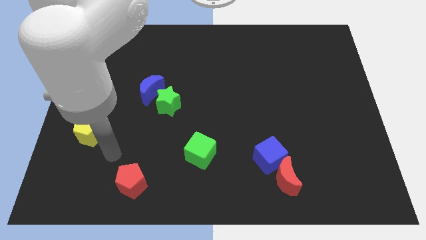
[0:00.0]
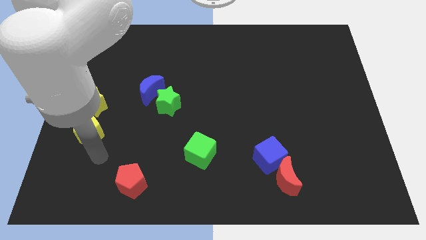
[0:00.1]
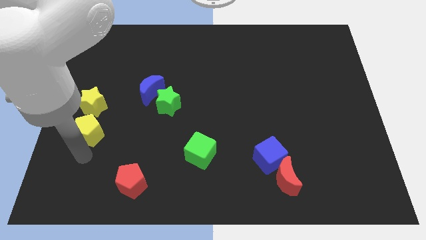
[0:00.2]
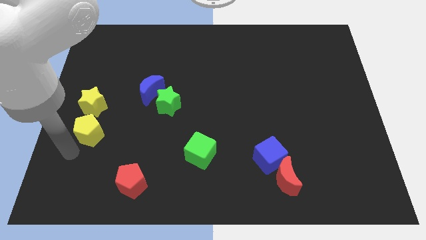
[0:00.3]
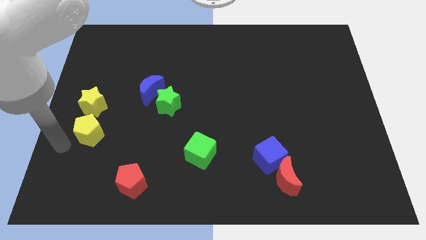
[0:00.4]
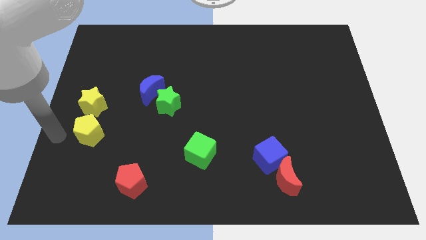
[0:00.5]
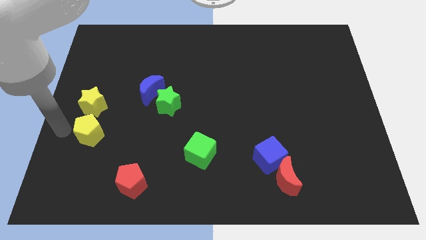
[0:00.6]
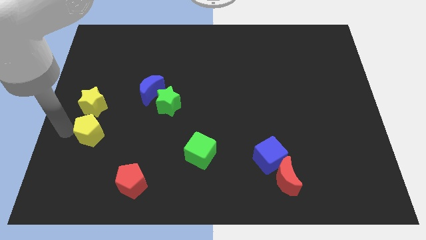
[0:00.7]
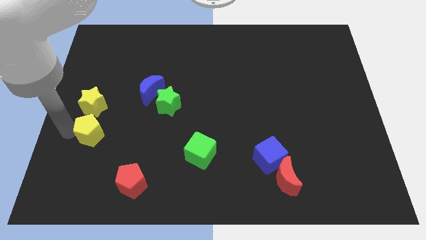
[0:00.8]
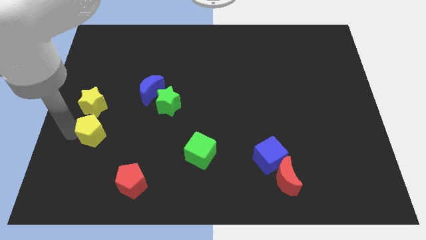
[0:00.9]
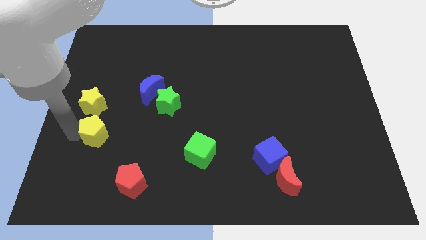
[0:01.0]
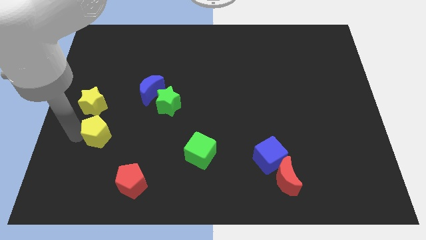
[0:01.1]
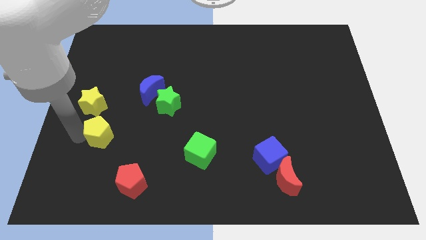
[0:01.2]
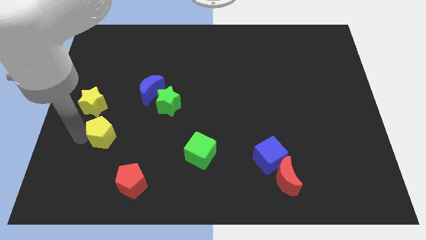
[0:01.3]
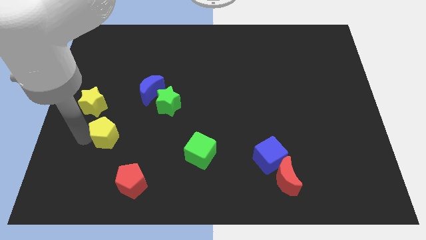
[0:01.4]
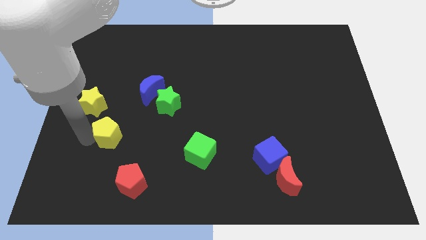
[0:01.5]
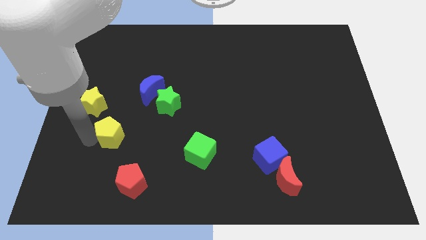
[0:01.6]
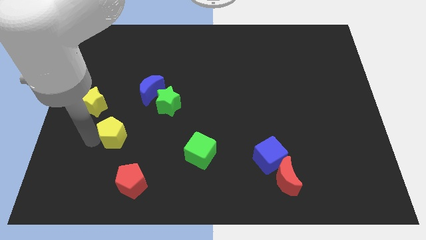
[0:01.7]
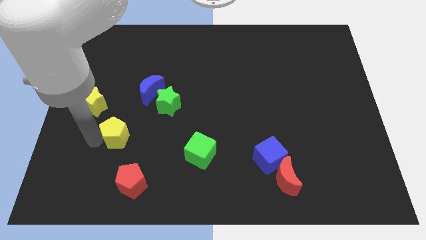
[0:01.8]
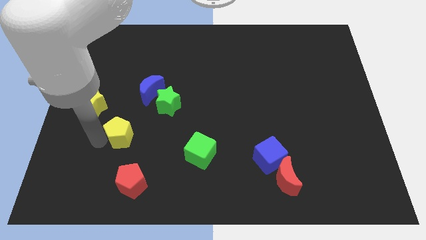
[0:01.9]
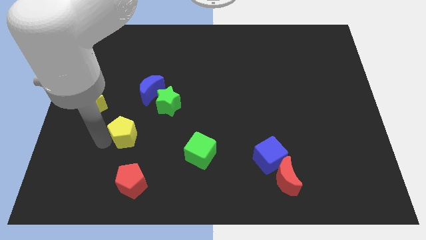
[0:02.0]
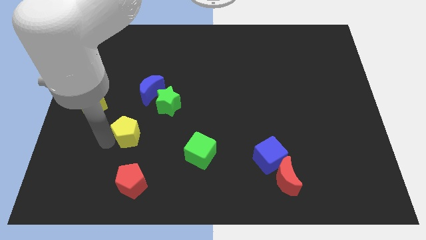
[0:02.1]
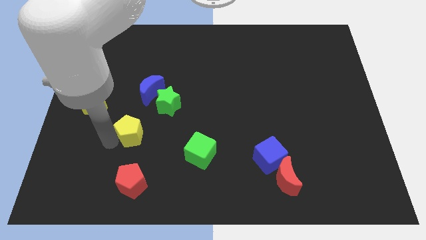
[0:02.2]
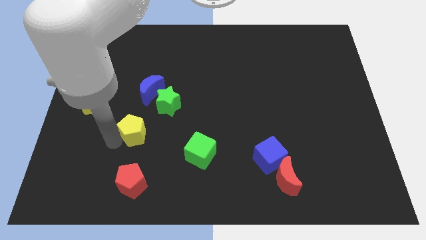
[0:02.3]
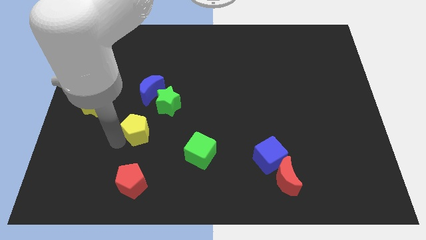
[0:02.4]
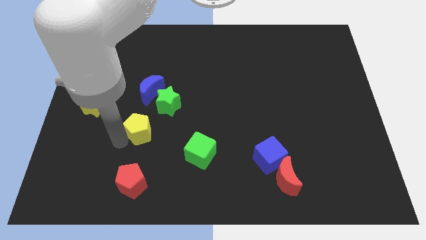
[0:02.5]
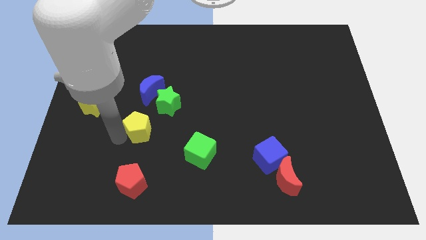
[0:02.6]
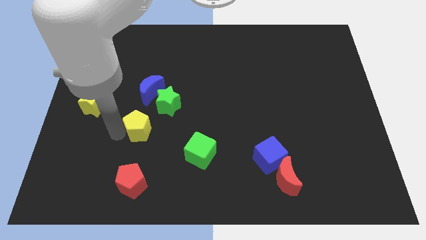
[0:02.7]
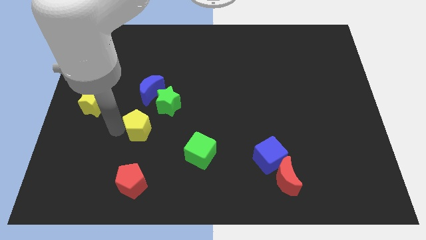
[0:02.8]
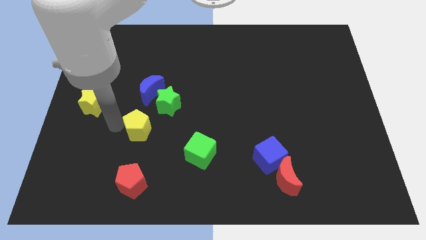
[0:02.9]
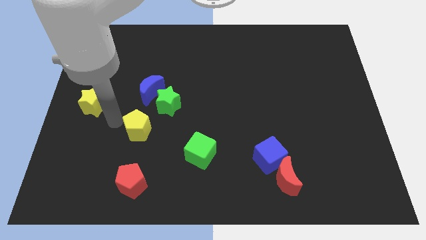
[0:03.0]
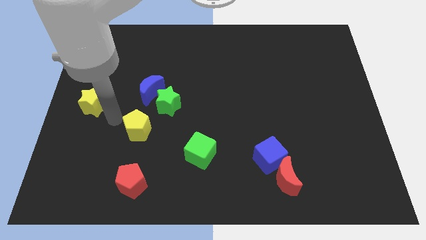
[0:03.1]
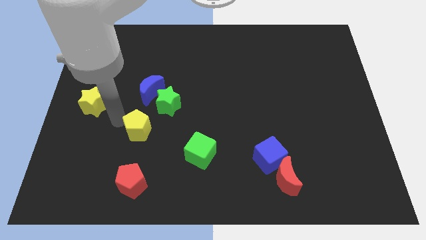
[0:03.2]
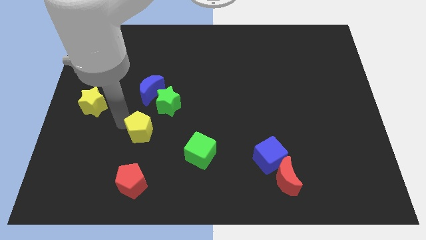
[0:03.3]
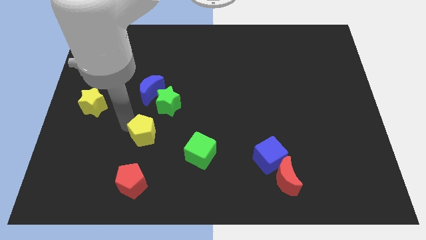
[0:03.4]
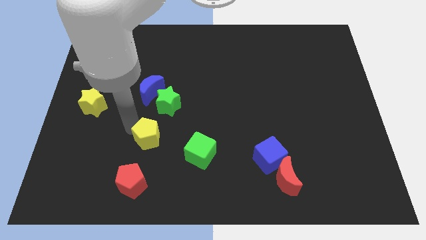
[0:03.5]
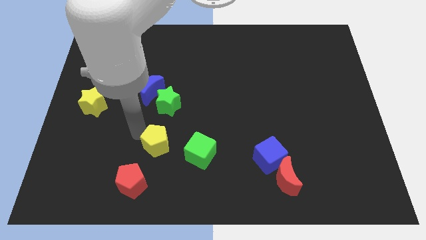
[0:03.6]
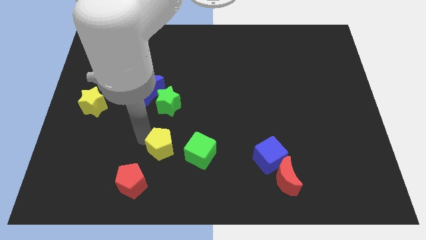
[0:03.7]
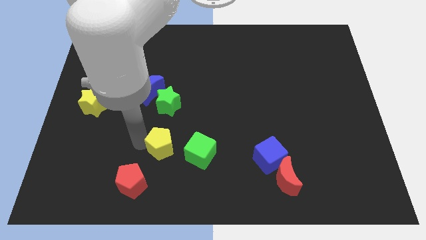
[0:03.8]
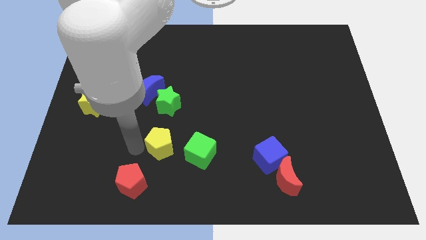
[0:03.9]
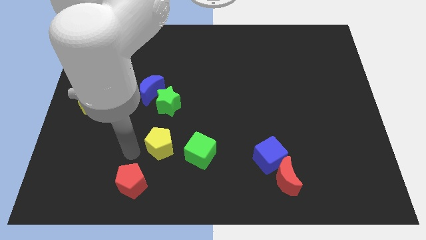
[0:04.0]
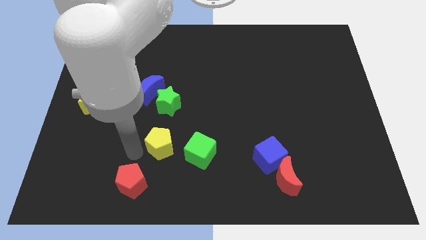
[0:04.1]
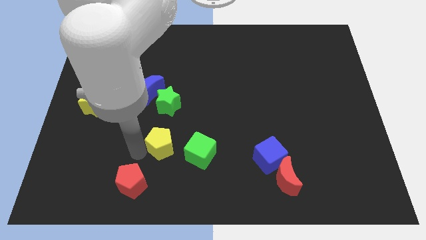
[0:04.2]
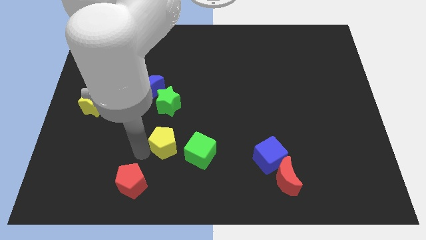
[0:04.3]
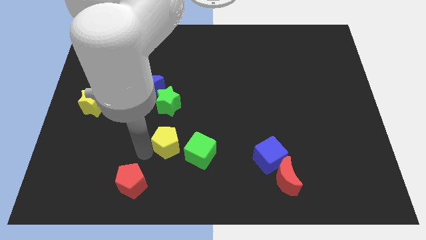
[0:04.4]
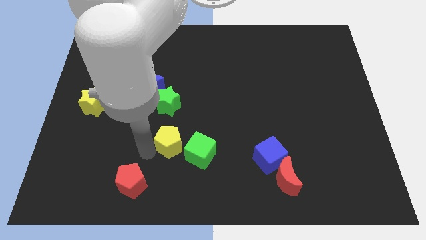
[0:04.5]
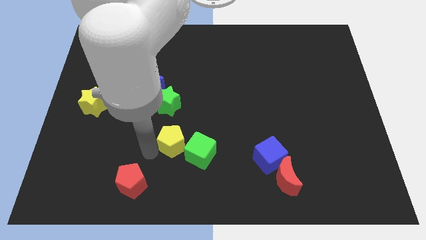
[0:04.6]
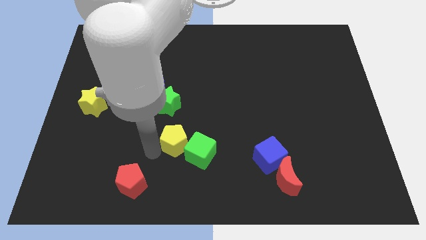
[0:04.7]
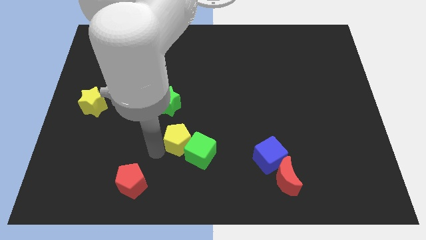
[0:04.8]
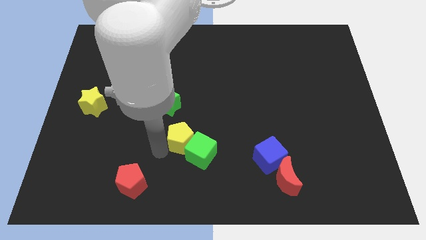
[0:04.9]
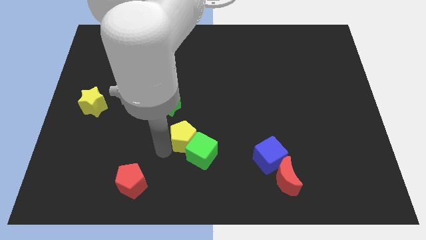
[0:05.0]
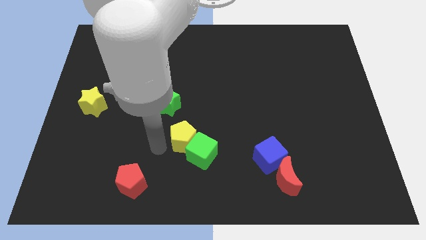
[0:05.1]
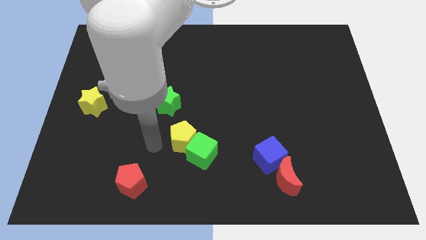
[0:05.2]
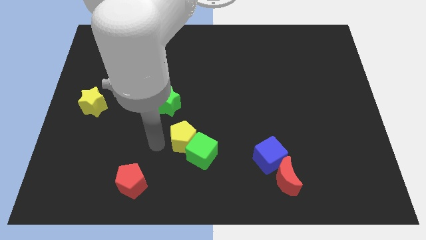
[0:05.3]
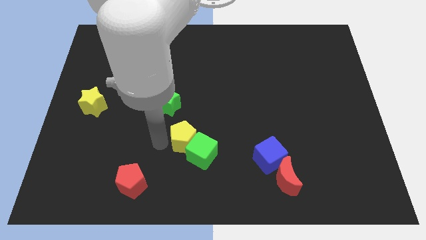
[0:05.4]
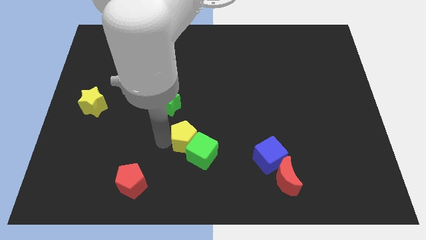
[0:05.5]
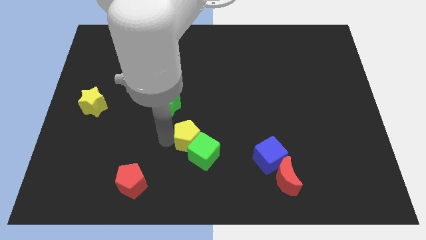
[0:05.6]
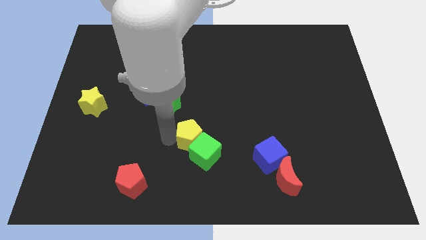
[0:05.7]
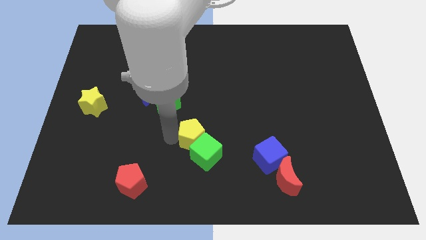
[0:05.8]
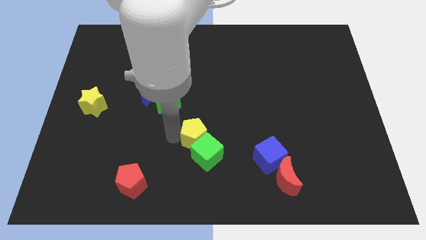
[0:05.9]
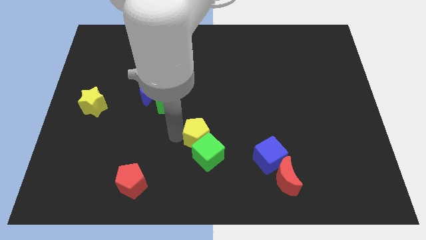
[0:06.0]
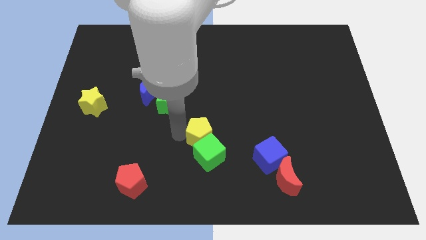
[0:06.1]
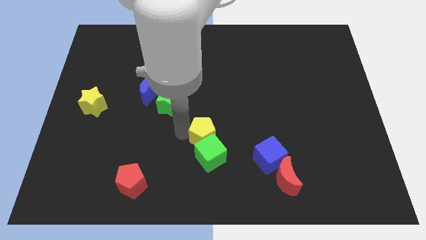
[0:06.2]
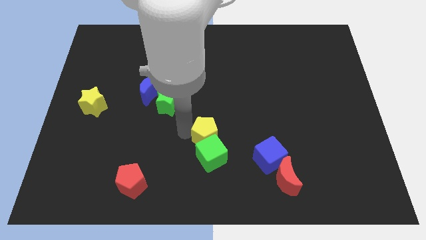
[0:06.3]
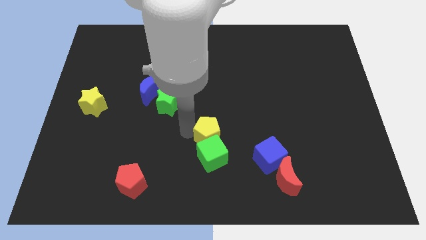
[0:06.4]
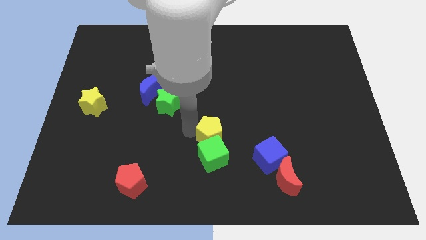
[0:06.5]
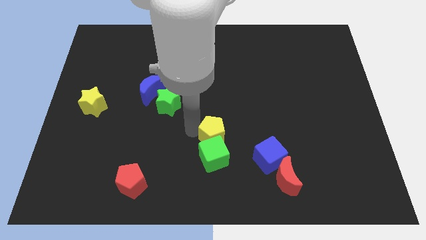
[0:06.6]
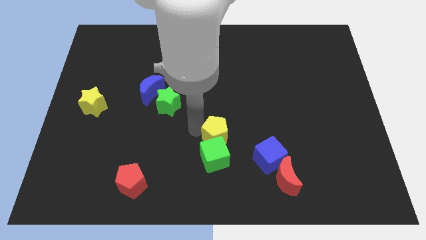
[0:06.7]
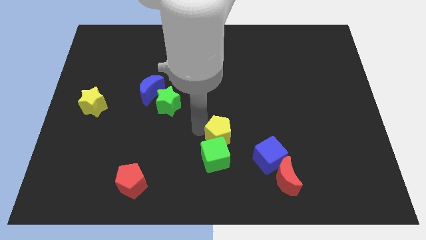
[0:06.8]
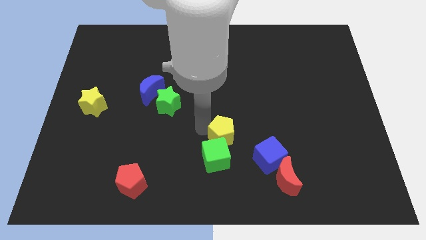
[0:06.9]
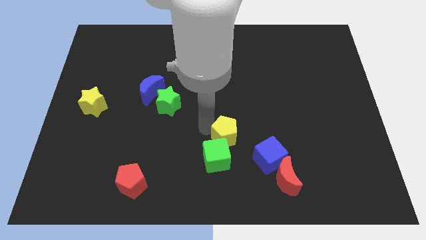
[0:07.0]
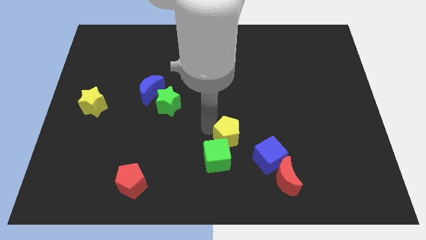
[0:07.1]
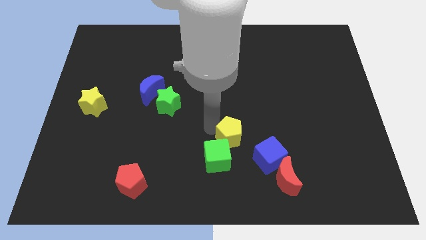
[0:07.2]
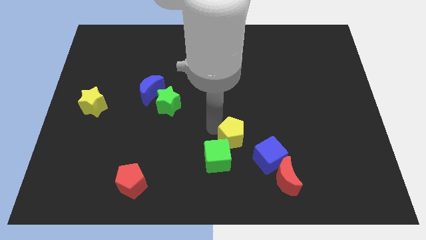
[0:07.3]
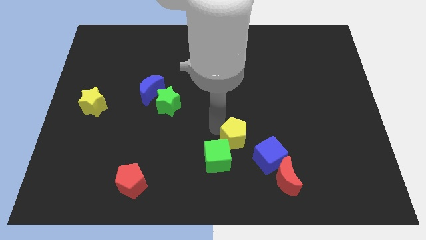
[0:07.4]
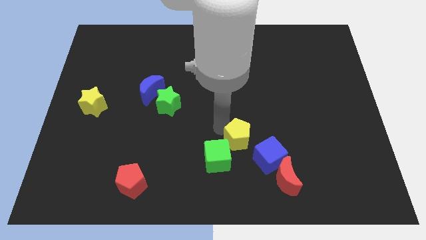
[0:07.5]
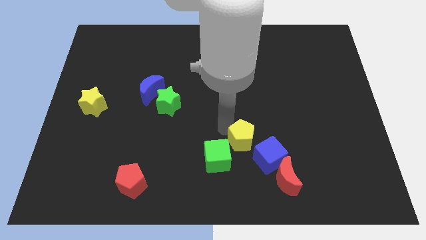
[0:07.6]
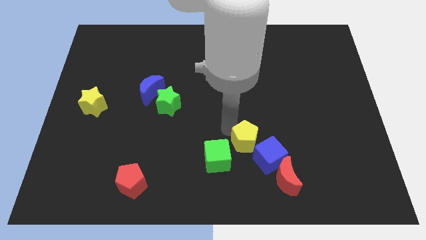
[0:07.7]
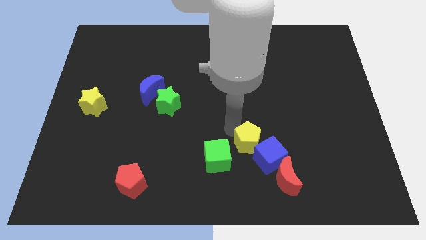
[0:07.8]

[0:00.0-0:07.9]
slide the yellow pentagon close to the blue cube

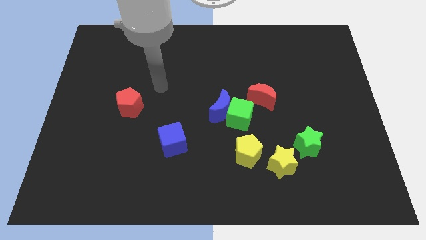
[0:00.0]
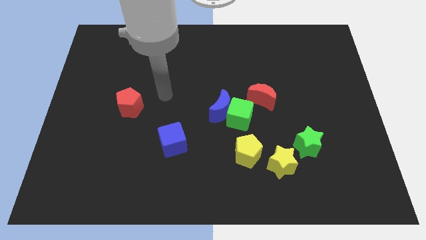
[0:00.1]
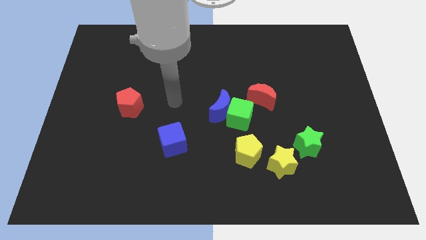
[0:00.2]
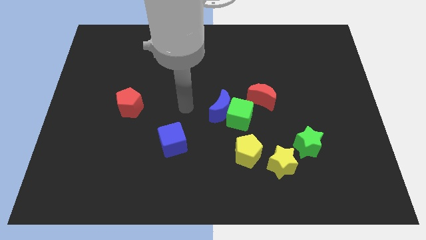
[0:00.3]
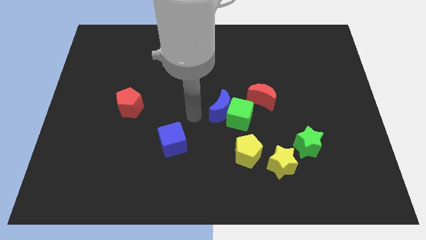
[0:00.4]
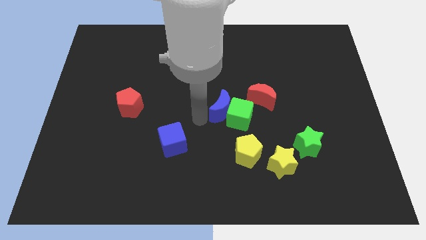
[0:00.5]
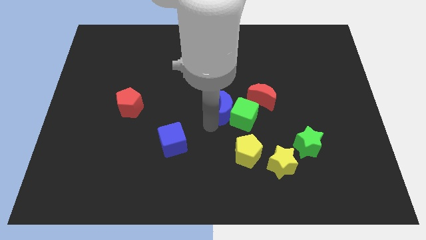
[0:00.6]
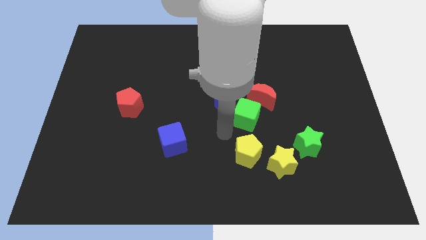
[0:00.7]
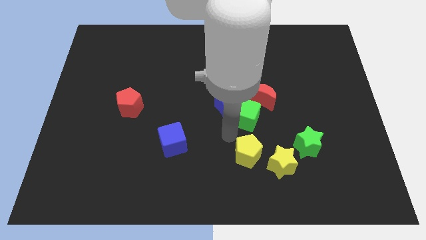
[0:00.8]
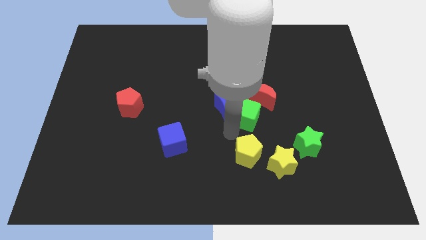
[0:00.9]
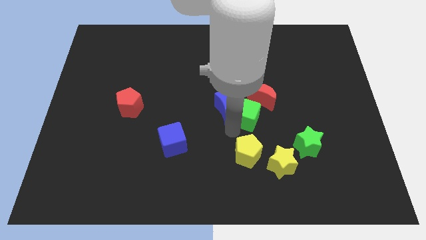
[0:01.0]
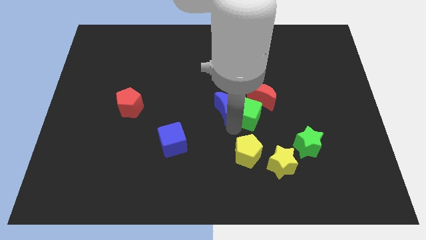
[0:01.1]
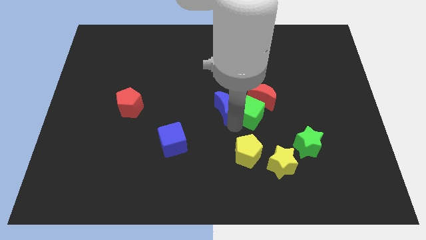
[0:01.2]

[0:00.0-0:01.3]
put the green cube towards the red moon
